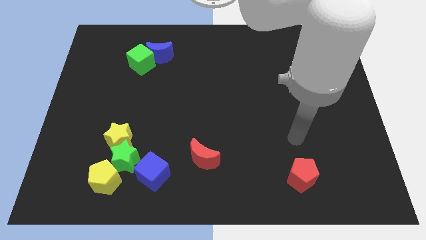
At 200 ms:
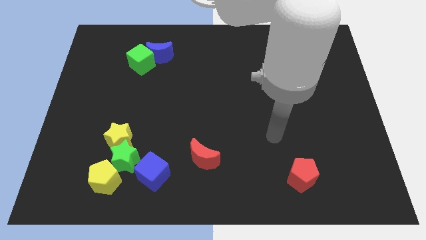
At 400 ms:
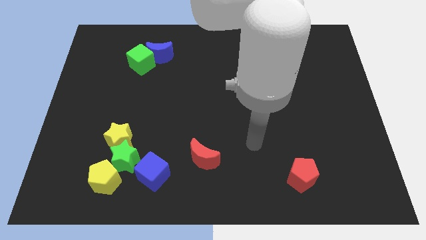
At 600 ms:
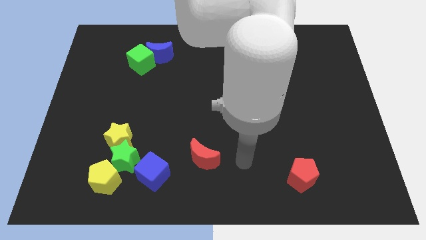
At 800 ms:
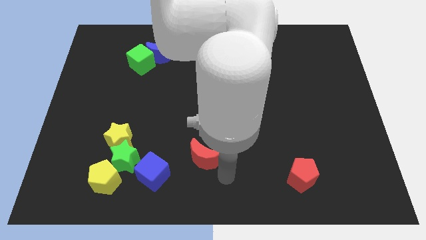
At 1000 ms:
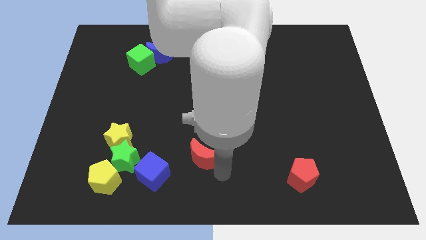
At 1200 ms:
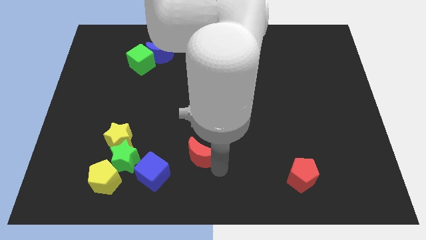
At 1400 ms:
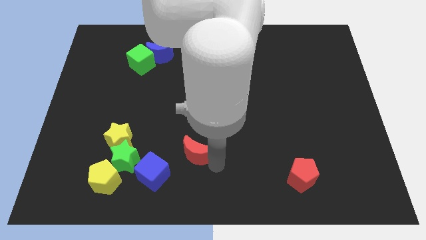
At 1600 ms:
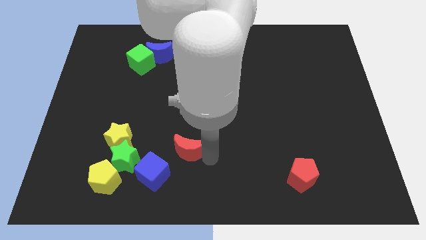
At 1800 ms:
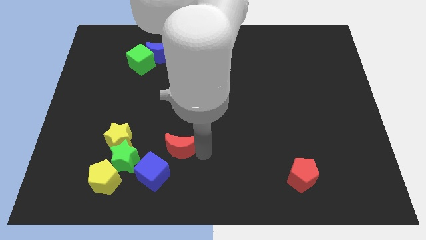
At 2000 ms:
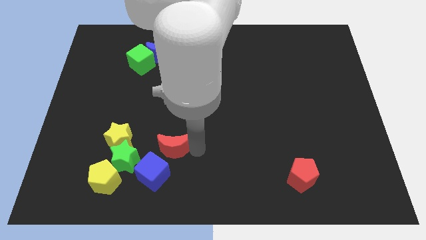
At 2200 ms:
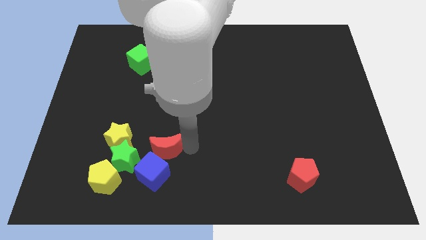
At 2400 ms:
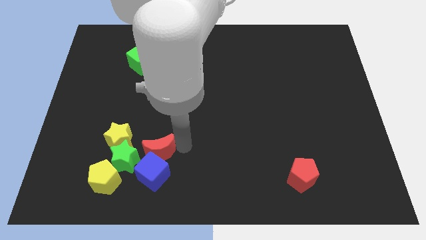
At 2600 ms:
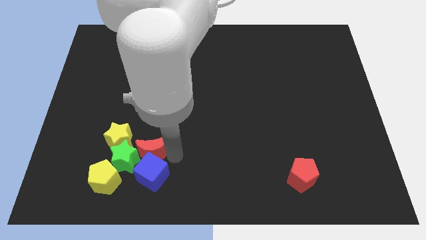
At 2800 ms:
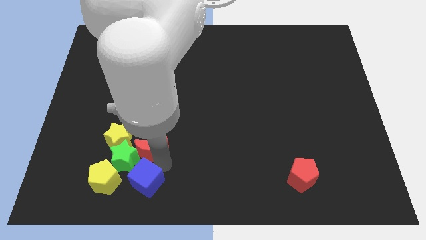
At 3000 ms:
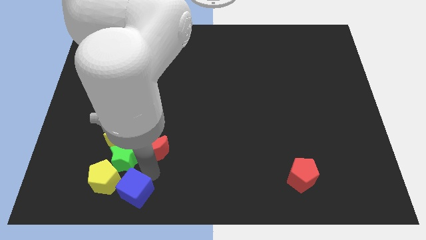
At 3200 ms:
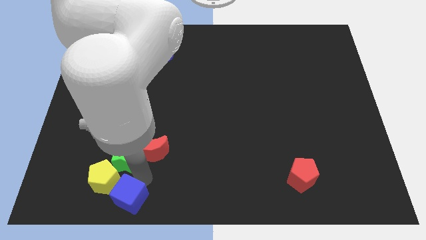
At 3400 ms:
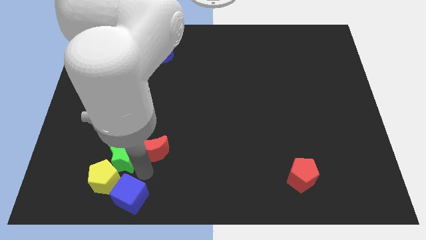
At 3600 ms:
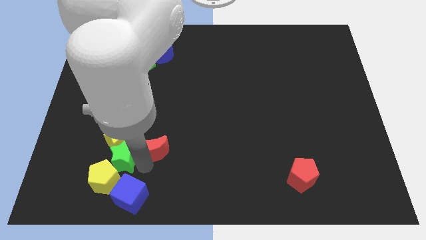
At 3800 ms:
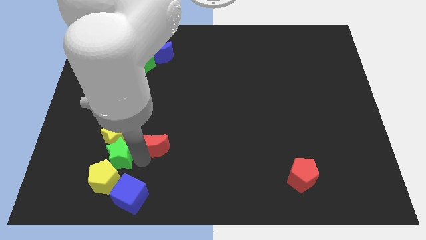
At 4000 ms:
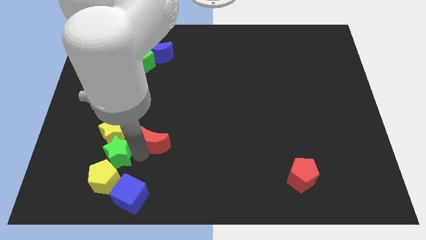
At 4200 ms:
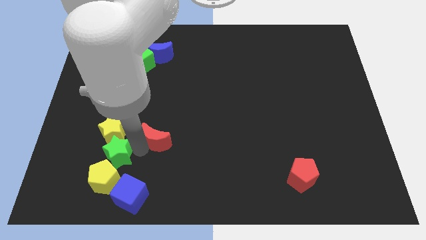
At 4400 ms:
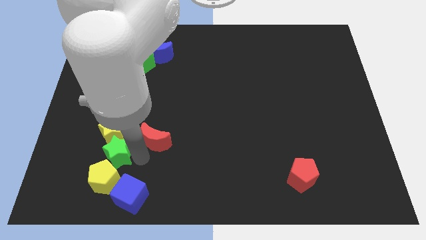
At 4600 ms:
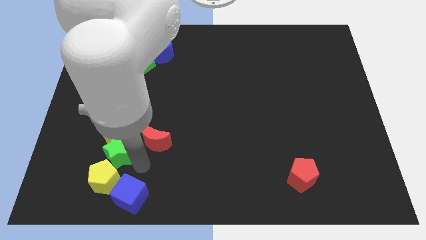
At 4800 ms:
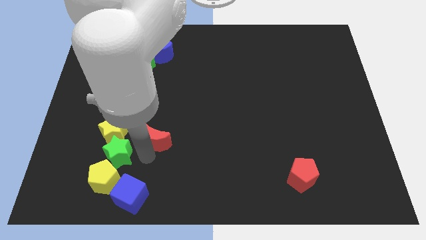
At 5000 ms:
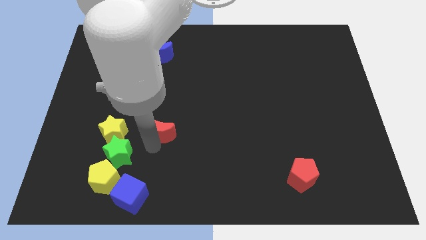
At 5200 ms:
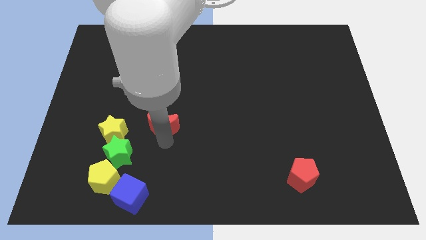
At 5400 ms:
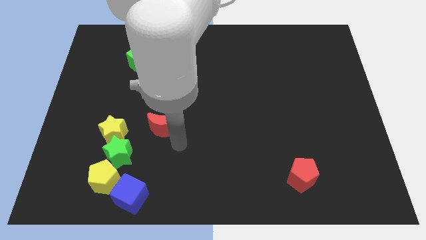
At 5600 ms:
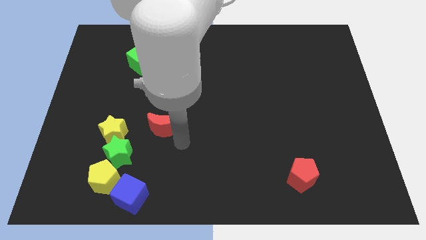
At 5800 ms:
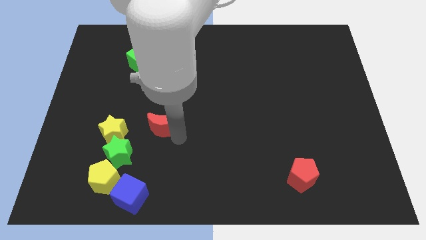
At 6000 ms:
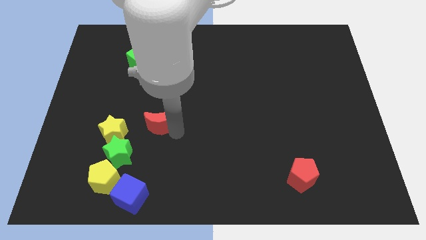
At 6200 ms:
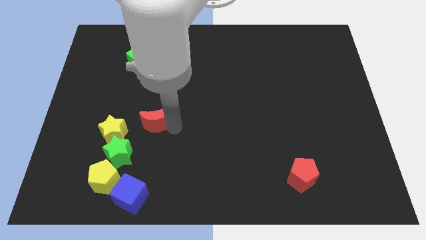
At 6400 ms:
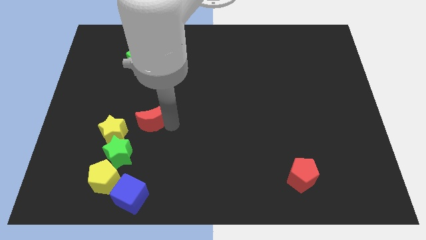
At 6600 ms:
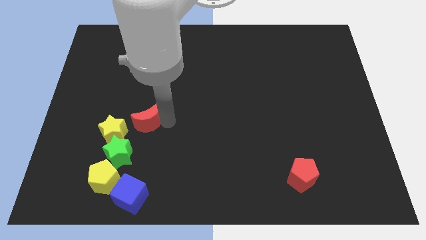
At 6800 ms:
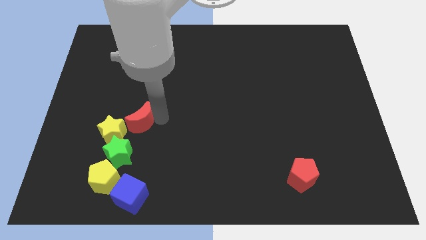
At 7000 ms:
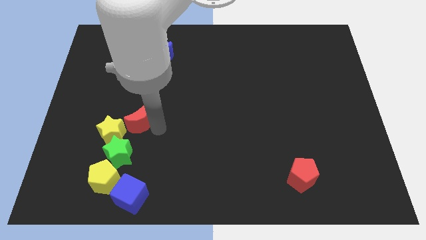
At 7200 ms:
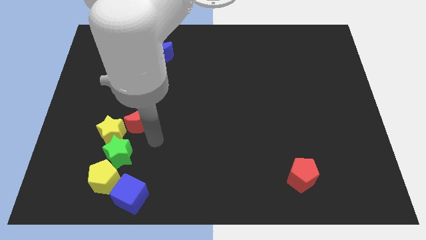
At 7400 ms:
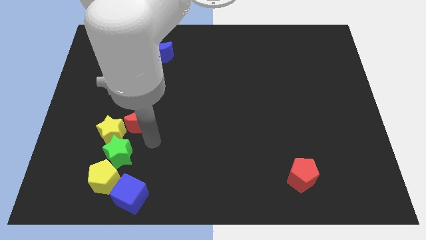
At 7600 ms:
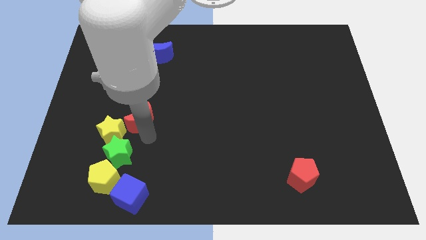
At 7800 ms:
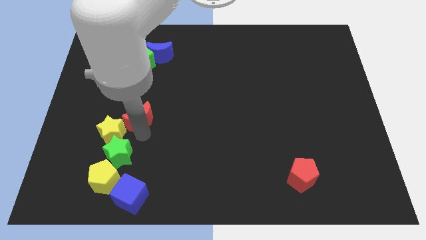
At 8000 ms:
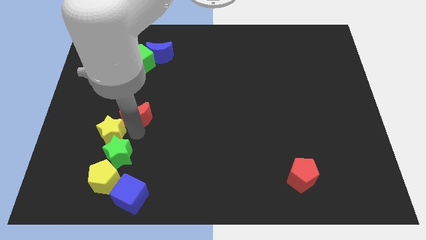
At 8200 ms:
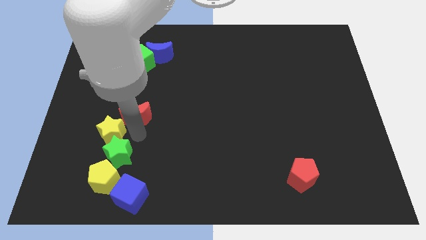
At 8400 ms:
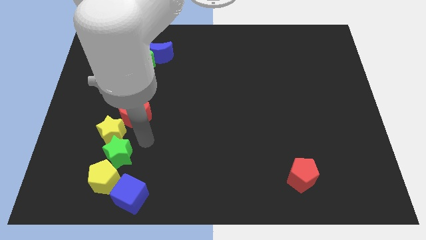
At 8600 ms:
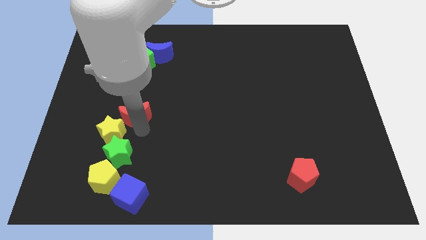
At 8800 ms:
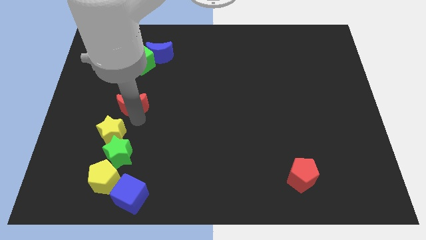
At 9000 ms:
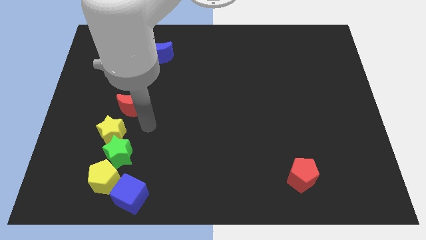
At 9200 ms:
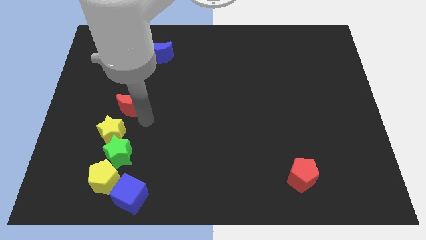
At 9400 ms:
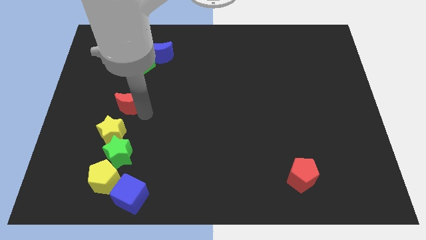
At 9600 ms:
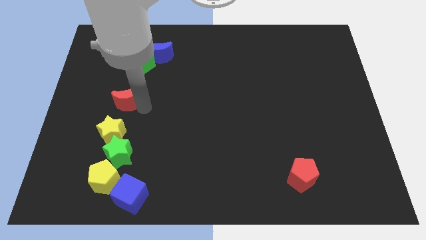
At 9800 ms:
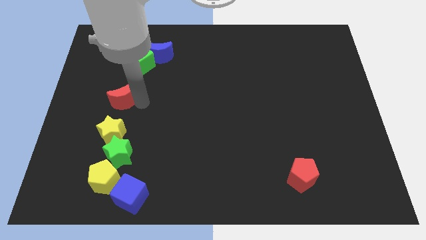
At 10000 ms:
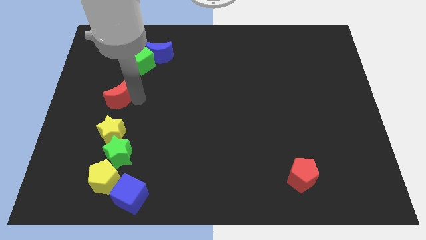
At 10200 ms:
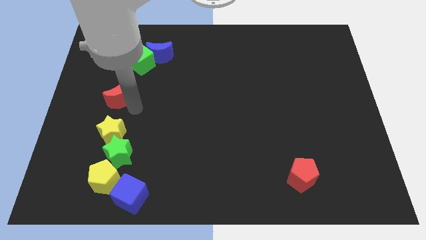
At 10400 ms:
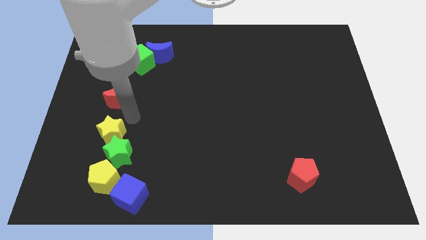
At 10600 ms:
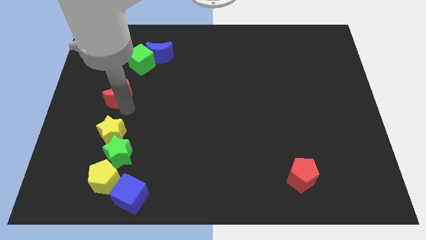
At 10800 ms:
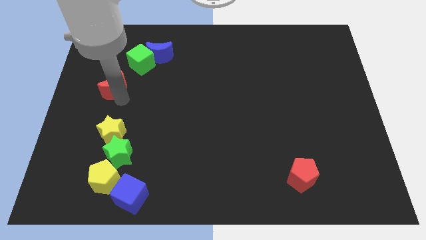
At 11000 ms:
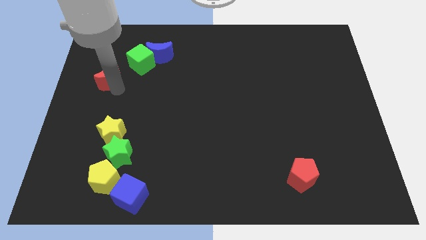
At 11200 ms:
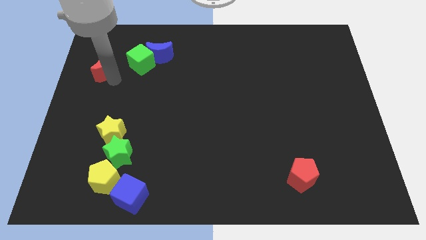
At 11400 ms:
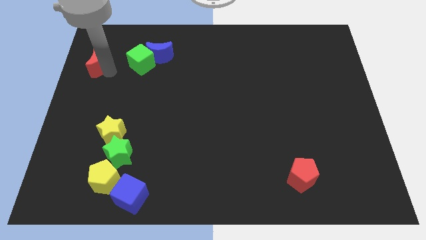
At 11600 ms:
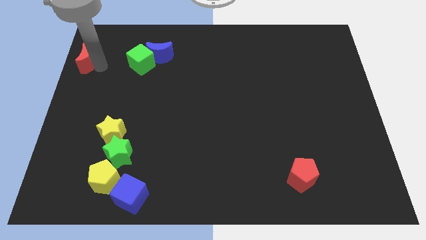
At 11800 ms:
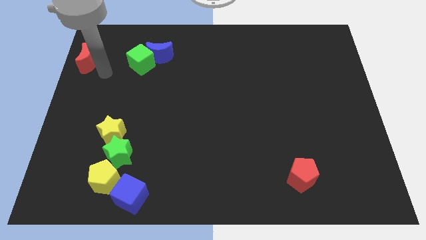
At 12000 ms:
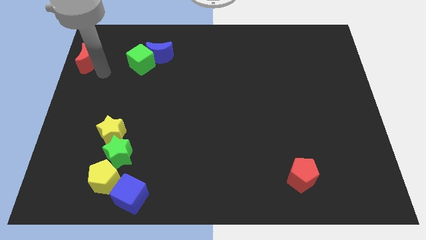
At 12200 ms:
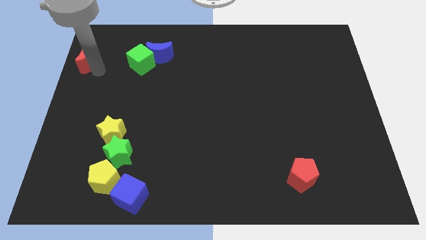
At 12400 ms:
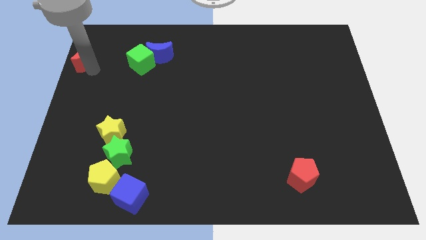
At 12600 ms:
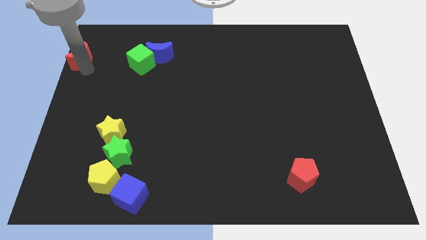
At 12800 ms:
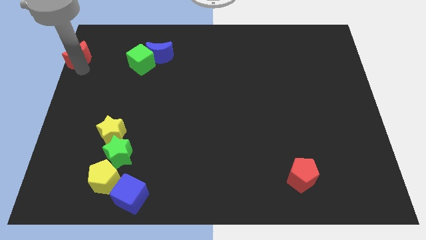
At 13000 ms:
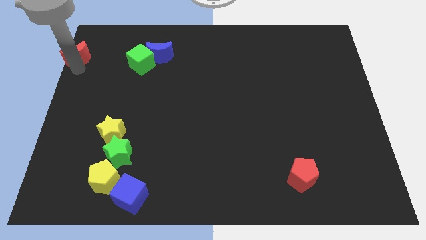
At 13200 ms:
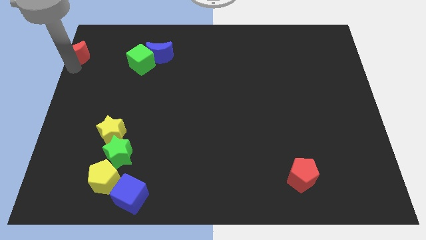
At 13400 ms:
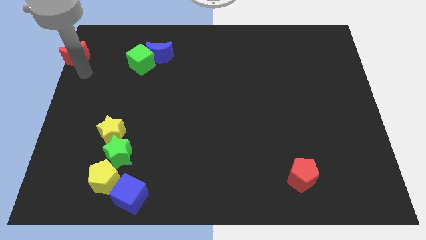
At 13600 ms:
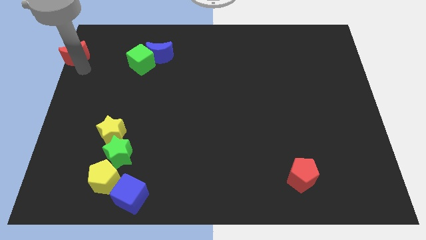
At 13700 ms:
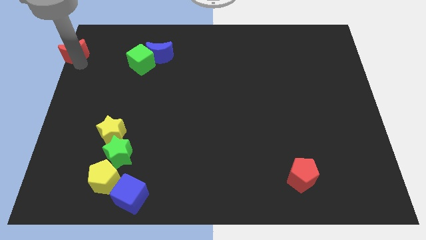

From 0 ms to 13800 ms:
push the red moon to the top left corner
